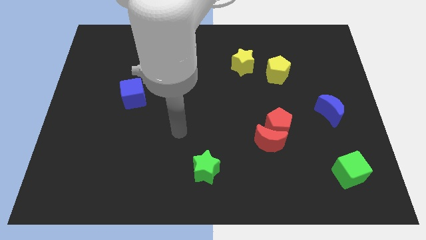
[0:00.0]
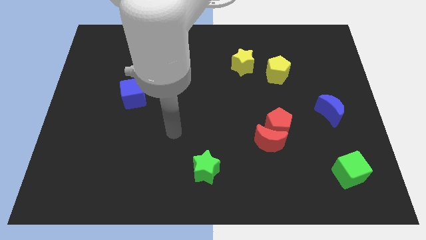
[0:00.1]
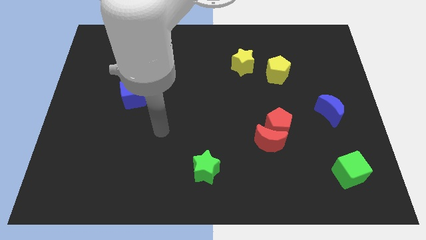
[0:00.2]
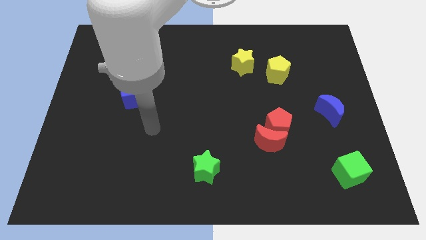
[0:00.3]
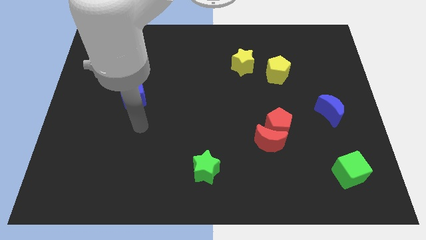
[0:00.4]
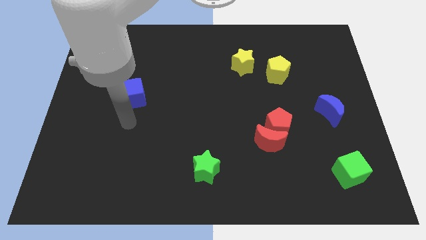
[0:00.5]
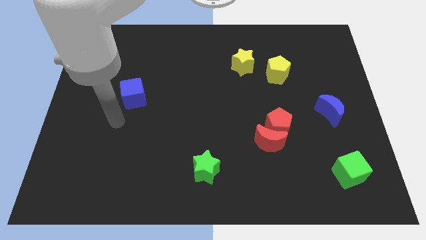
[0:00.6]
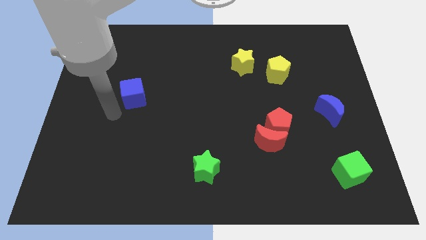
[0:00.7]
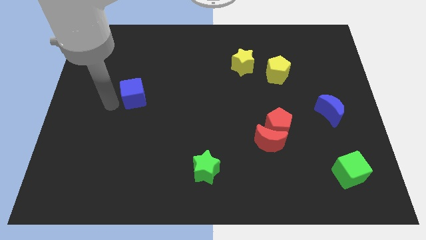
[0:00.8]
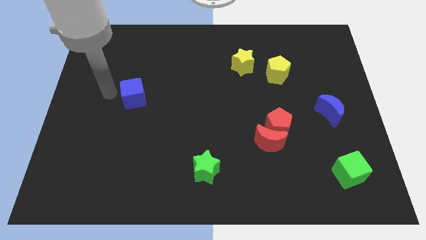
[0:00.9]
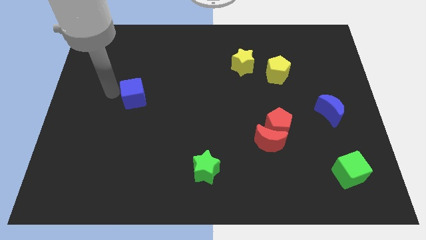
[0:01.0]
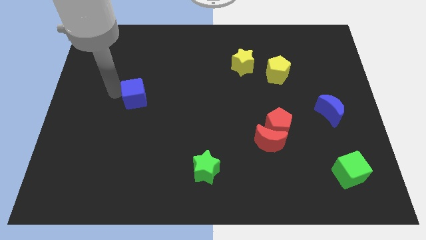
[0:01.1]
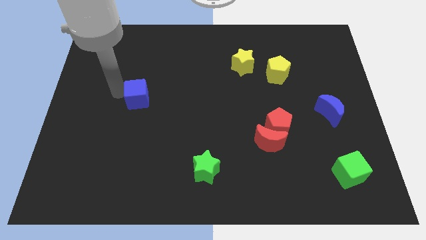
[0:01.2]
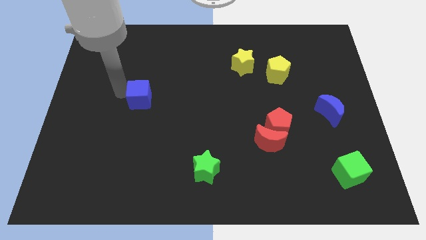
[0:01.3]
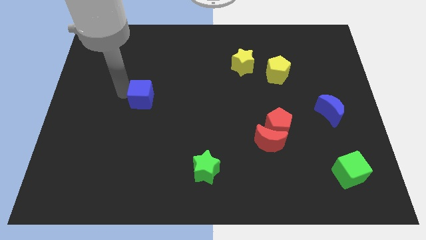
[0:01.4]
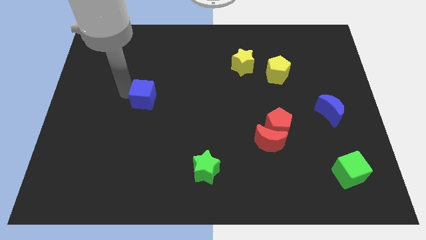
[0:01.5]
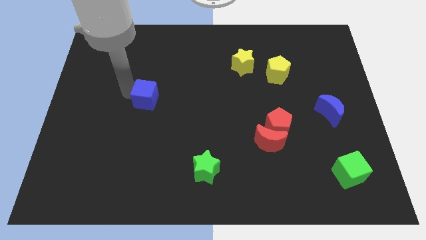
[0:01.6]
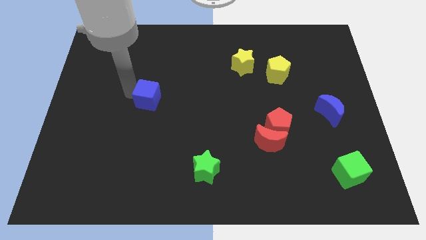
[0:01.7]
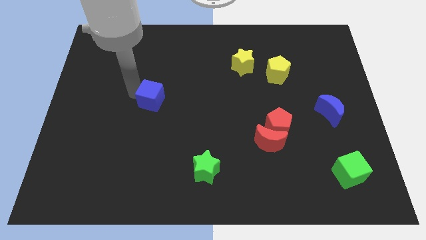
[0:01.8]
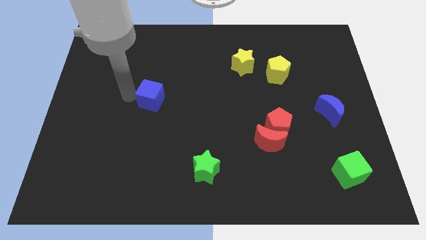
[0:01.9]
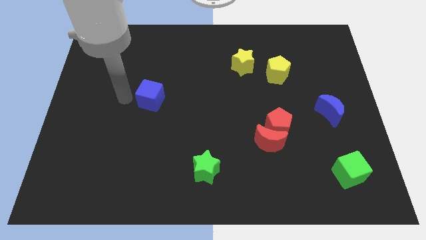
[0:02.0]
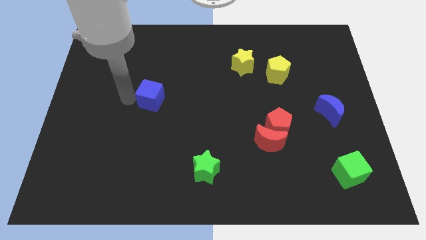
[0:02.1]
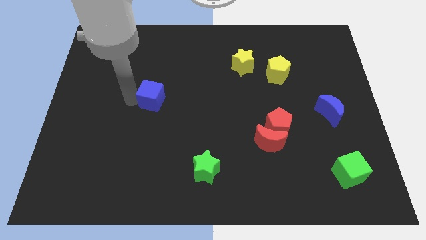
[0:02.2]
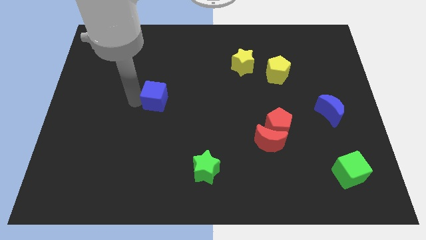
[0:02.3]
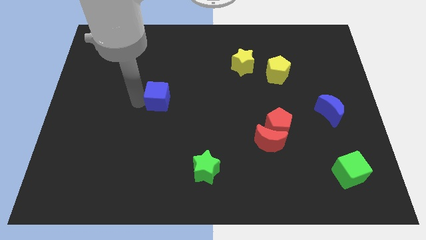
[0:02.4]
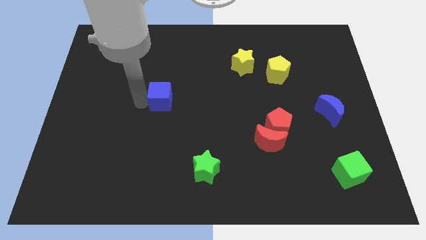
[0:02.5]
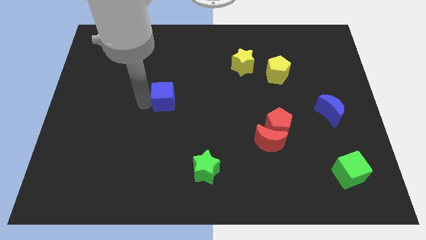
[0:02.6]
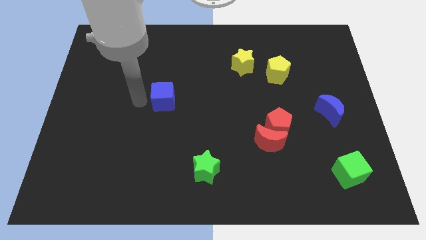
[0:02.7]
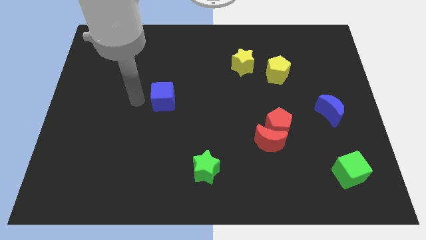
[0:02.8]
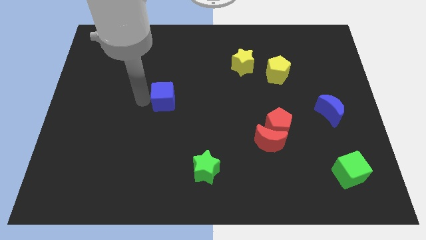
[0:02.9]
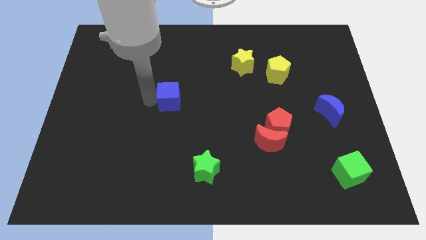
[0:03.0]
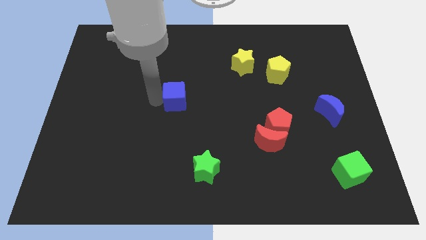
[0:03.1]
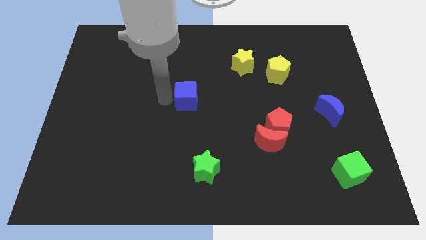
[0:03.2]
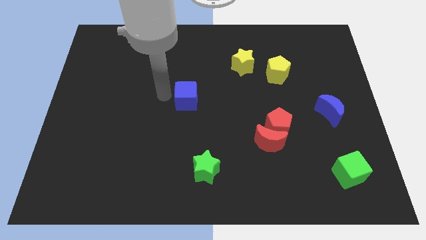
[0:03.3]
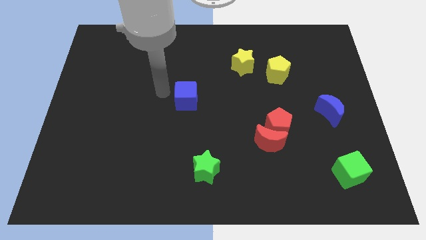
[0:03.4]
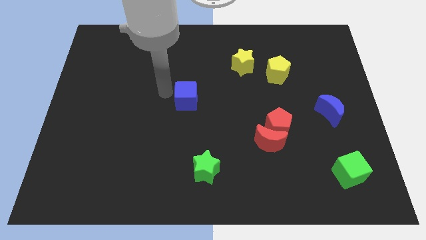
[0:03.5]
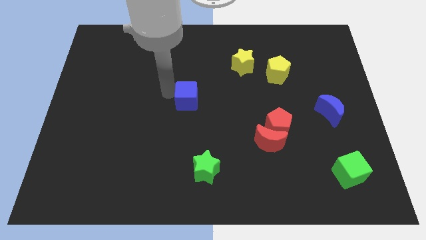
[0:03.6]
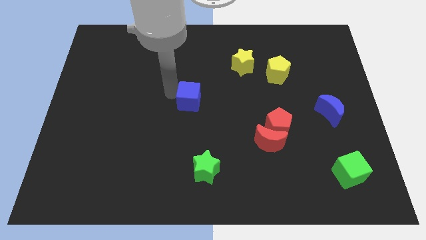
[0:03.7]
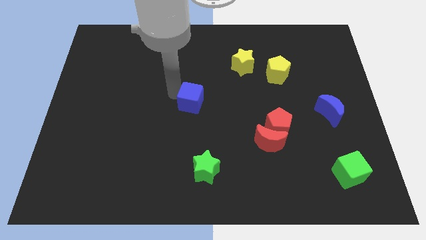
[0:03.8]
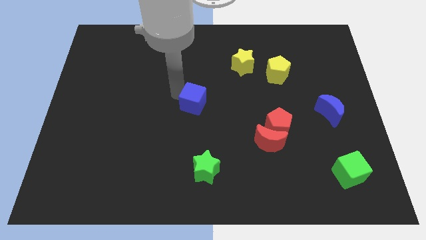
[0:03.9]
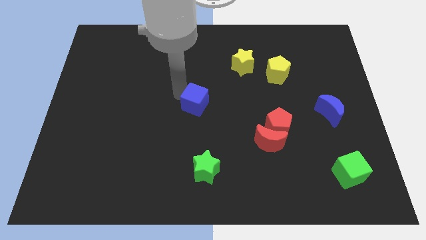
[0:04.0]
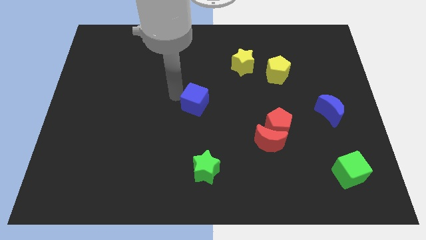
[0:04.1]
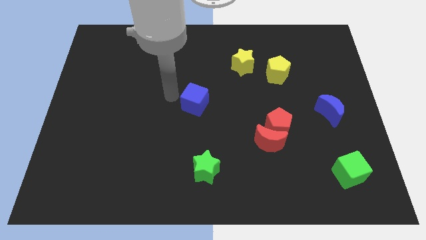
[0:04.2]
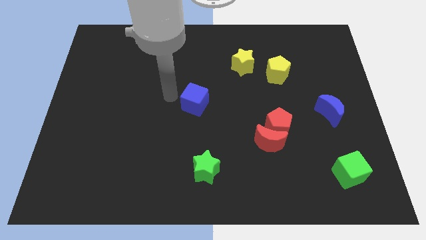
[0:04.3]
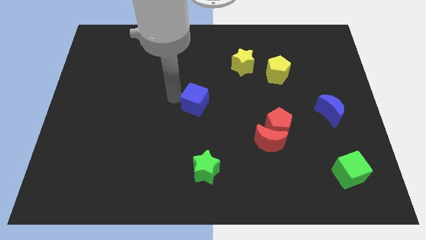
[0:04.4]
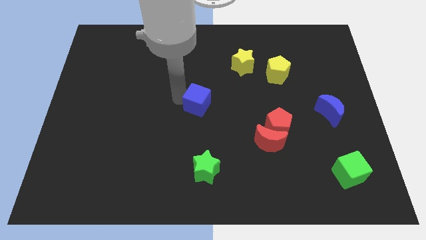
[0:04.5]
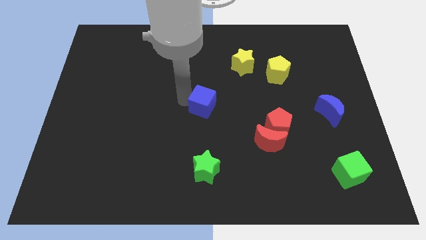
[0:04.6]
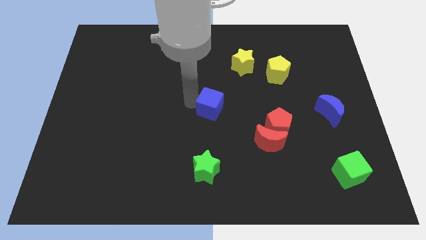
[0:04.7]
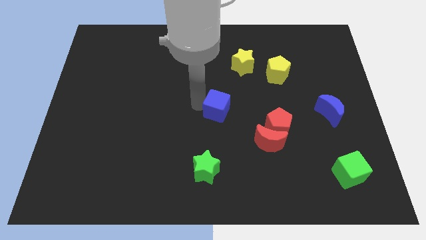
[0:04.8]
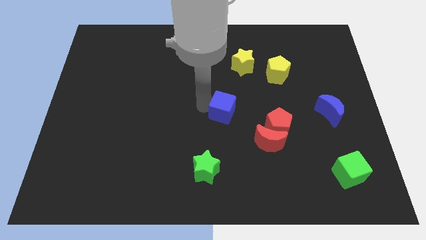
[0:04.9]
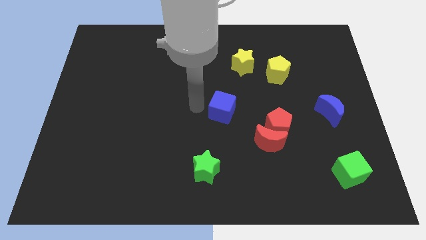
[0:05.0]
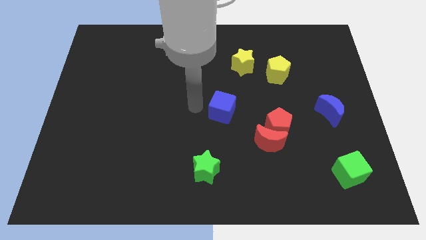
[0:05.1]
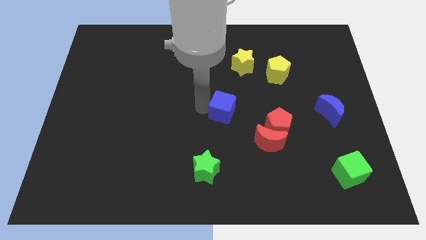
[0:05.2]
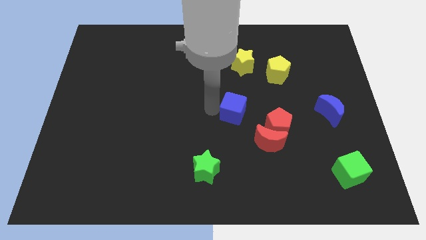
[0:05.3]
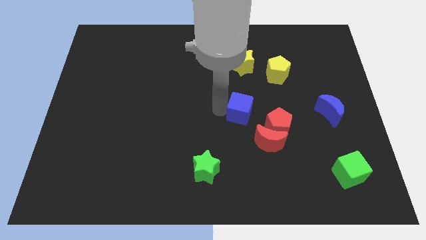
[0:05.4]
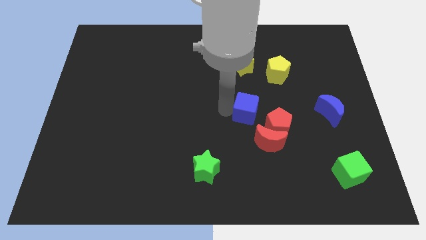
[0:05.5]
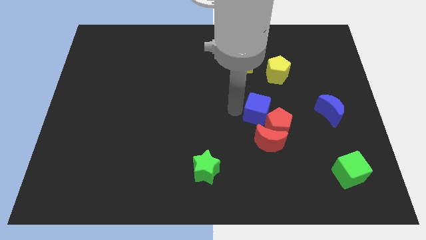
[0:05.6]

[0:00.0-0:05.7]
move the blue cube next to the red pentagon

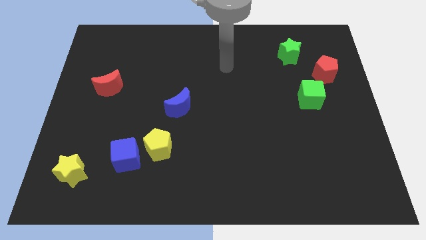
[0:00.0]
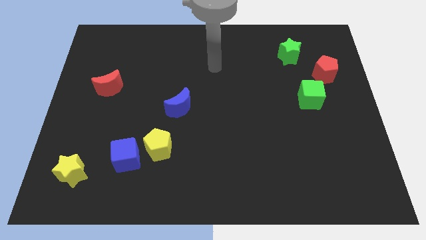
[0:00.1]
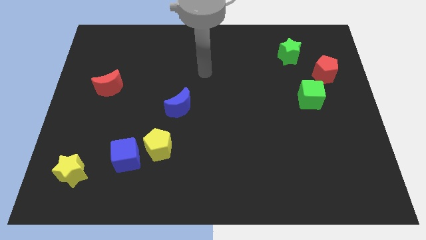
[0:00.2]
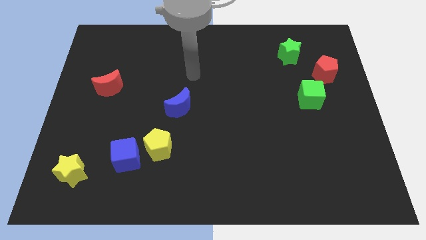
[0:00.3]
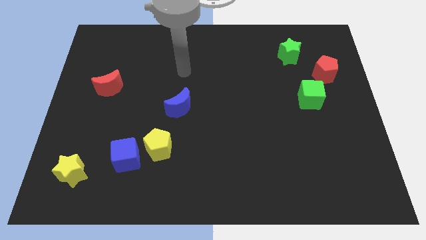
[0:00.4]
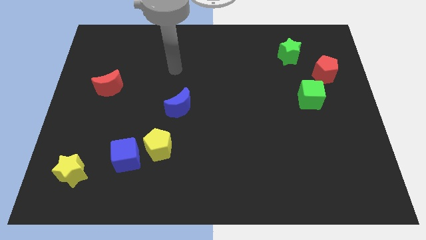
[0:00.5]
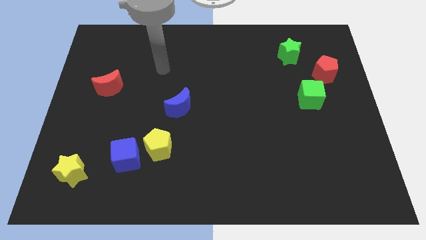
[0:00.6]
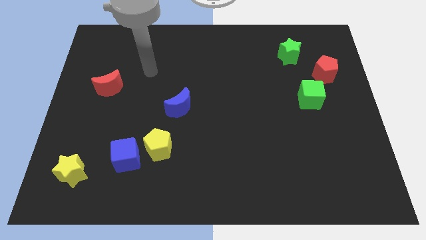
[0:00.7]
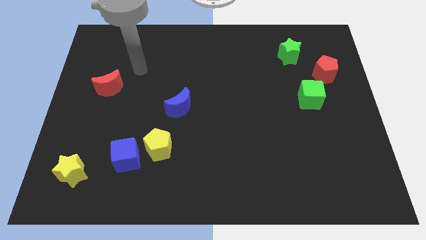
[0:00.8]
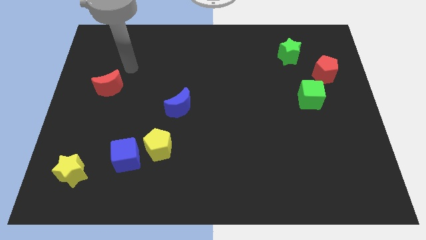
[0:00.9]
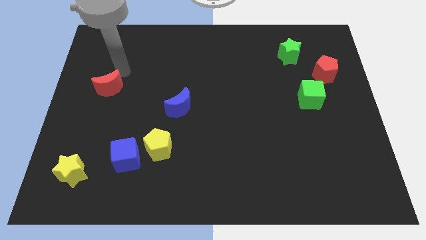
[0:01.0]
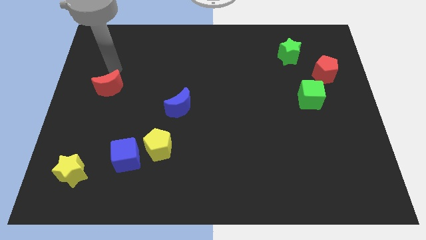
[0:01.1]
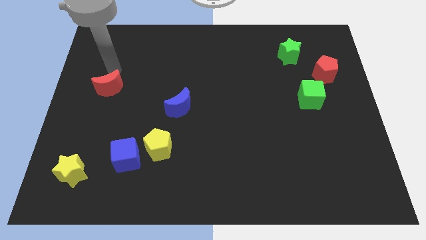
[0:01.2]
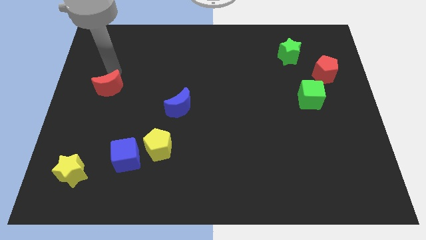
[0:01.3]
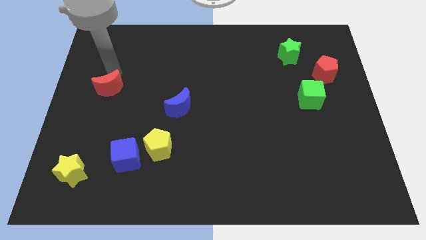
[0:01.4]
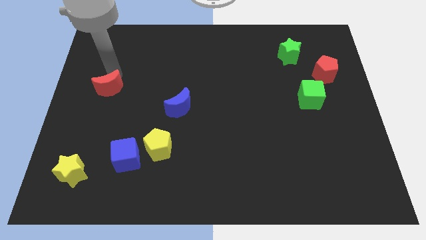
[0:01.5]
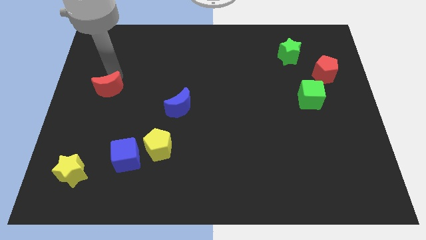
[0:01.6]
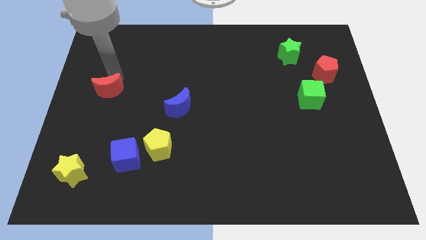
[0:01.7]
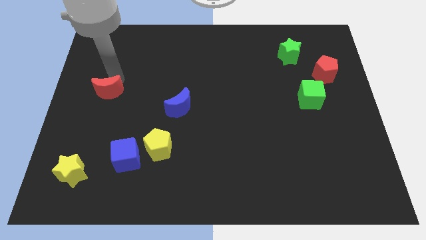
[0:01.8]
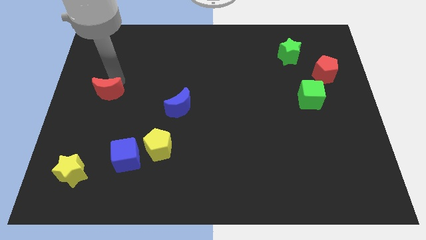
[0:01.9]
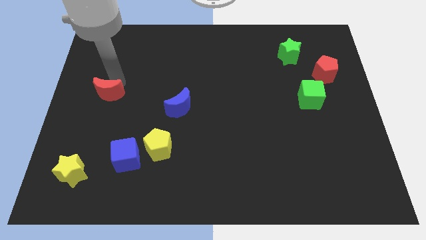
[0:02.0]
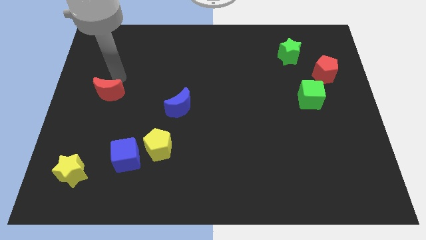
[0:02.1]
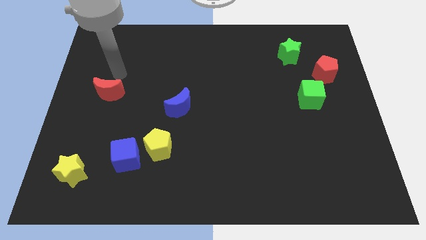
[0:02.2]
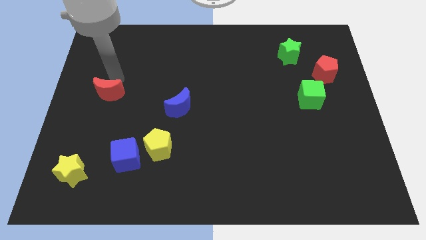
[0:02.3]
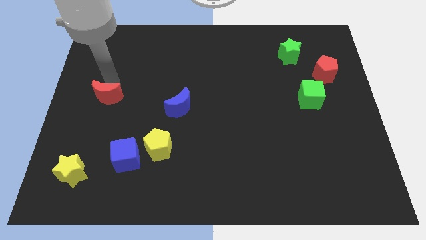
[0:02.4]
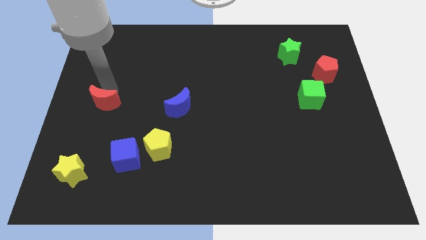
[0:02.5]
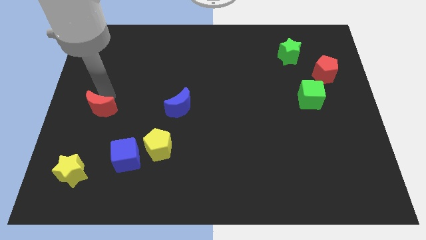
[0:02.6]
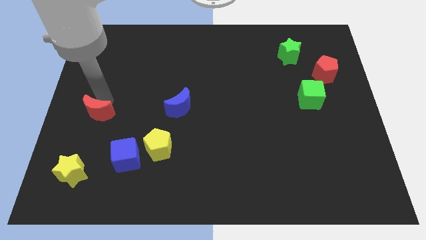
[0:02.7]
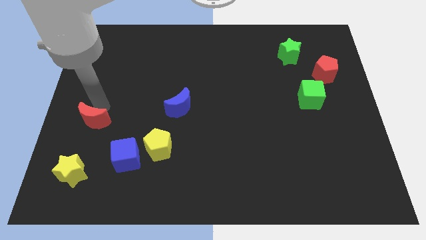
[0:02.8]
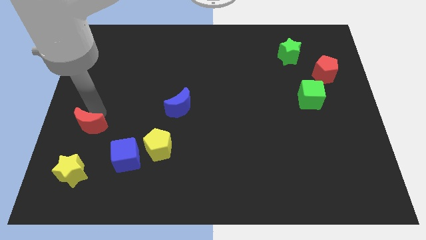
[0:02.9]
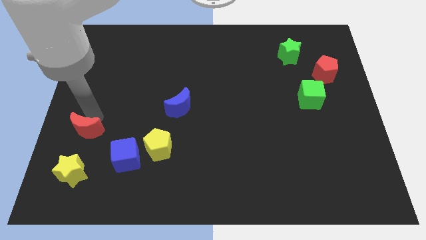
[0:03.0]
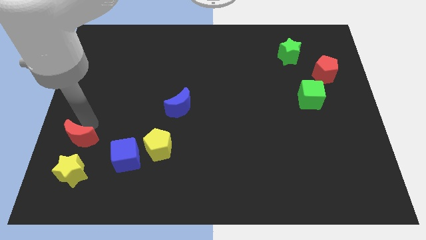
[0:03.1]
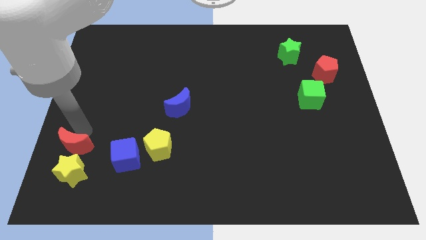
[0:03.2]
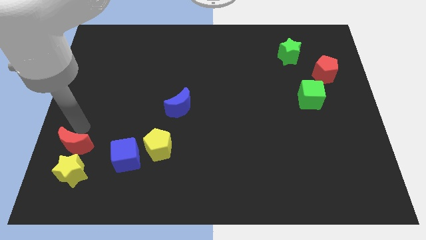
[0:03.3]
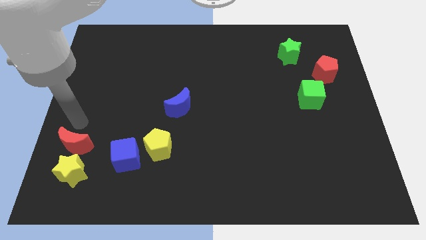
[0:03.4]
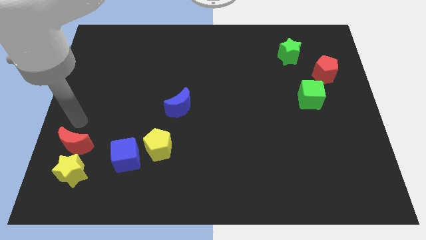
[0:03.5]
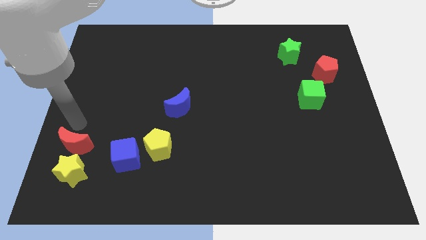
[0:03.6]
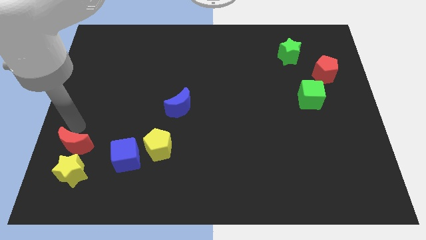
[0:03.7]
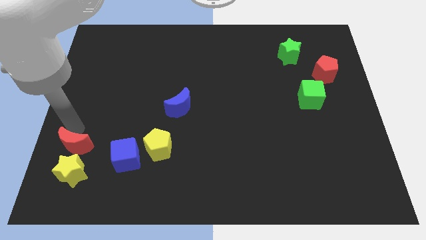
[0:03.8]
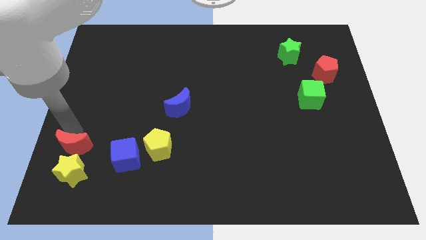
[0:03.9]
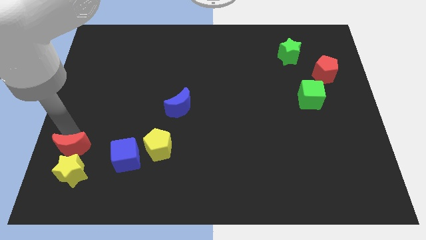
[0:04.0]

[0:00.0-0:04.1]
put the red moon towards the yellow star
